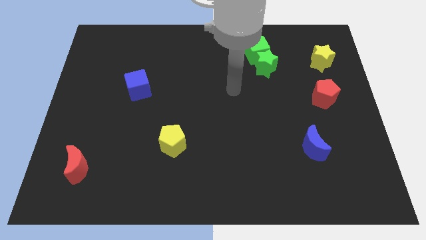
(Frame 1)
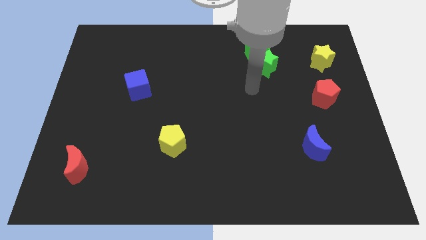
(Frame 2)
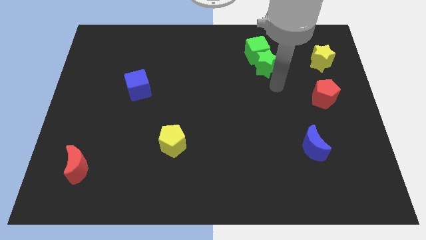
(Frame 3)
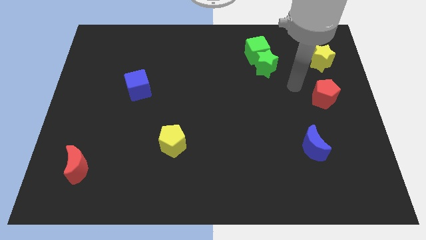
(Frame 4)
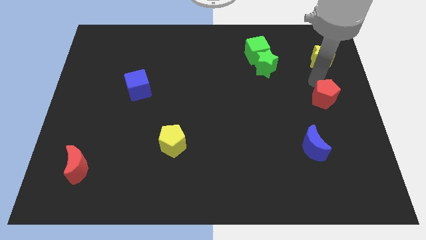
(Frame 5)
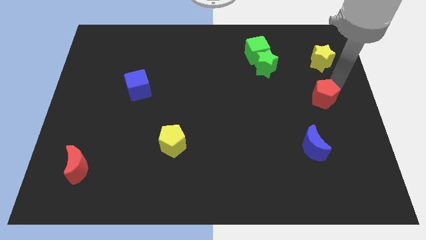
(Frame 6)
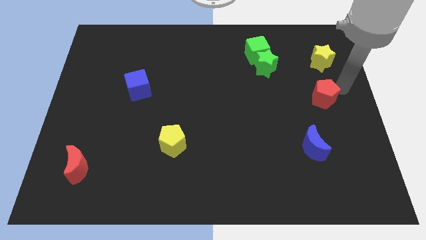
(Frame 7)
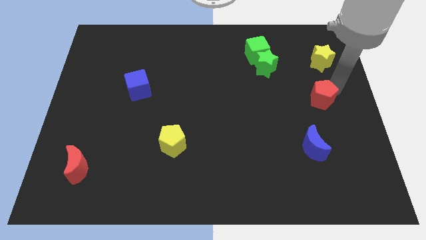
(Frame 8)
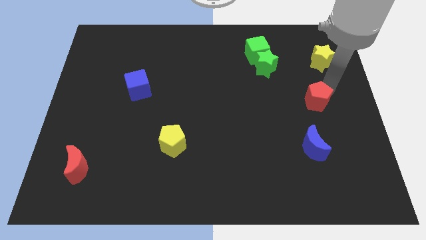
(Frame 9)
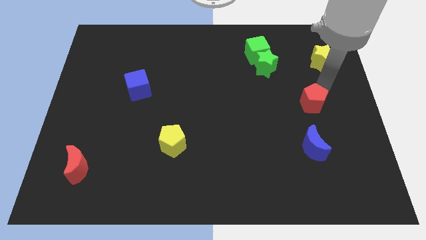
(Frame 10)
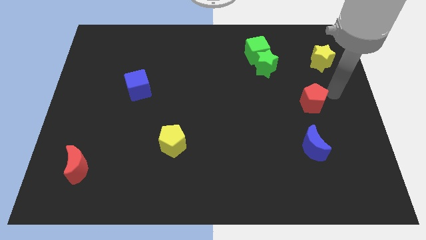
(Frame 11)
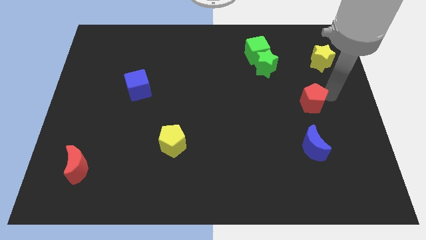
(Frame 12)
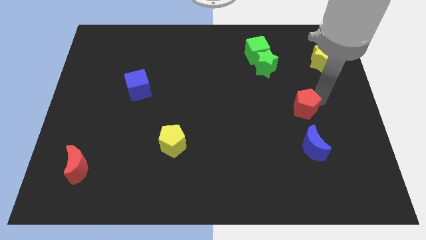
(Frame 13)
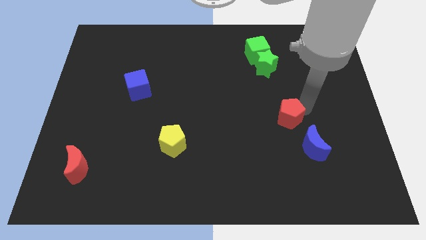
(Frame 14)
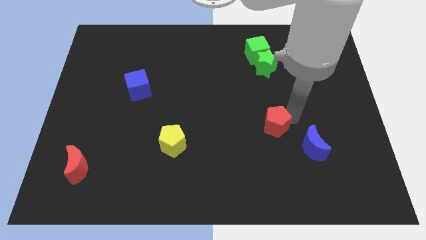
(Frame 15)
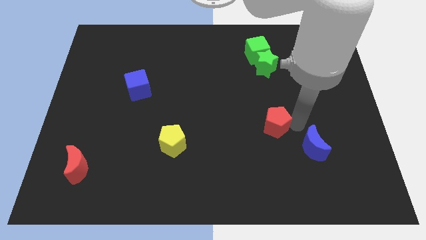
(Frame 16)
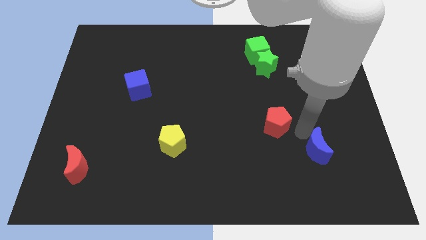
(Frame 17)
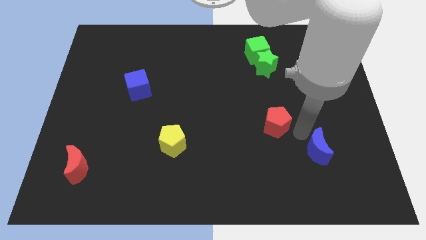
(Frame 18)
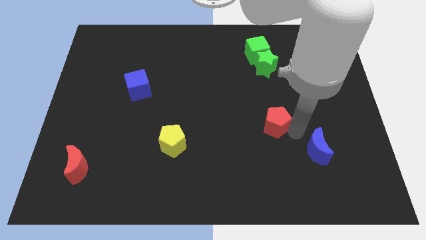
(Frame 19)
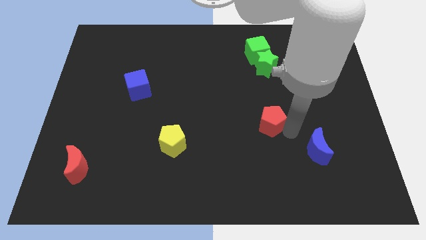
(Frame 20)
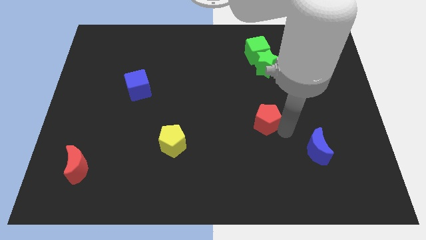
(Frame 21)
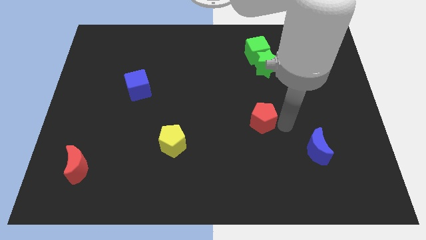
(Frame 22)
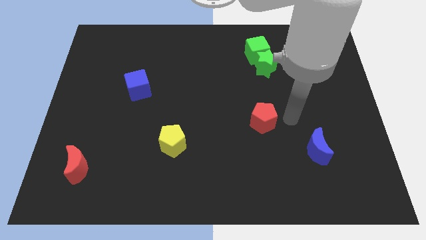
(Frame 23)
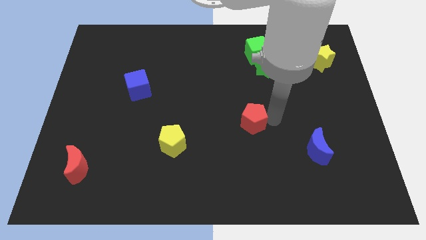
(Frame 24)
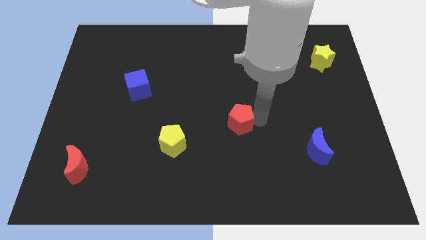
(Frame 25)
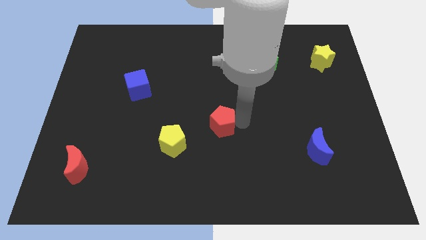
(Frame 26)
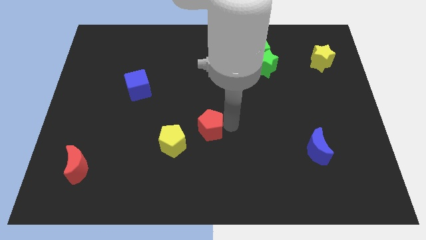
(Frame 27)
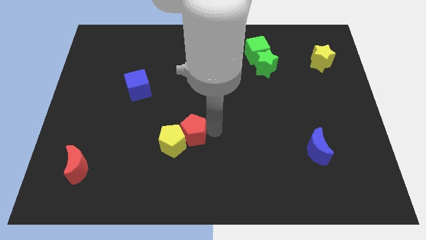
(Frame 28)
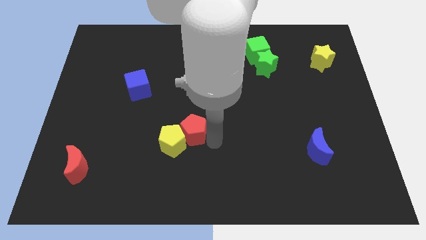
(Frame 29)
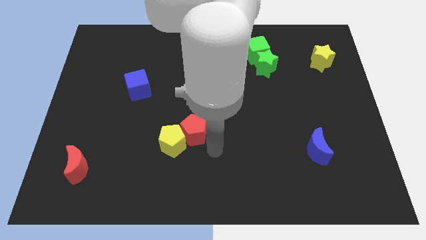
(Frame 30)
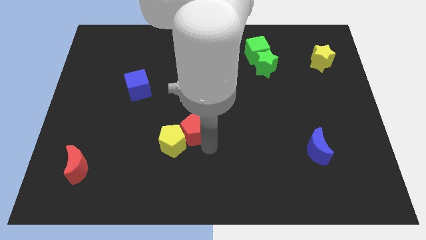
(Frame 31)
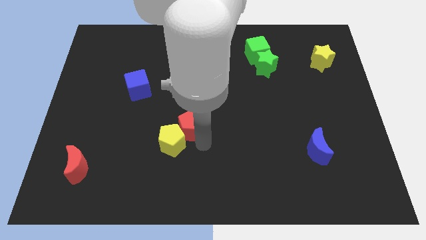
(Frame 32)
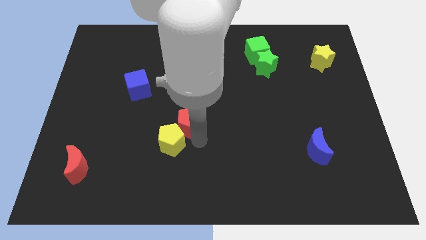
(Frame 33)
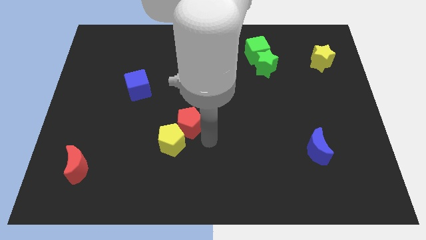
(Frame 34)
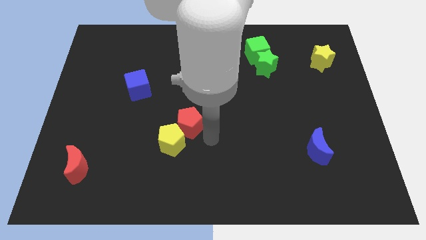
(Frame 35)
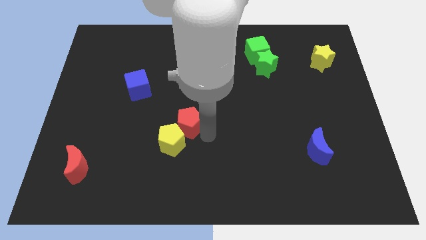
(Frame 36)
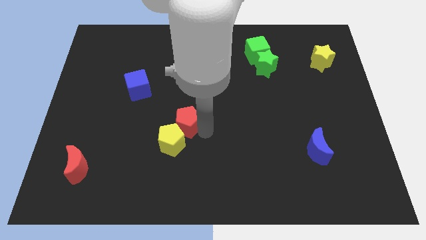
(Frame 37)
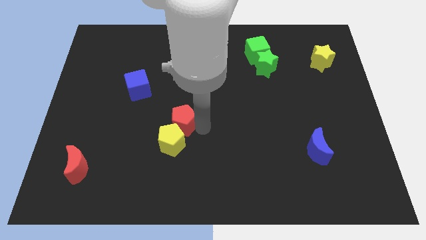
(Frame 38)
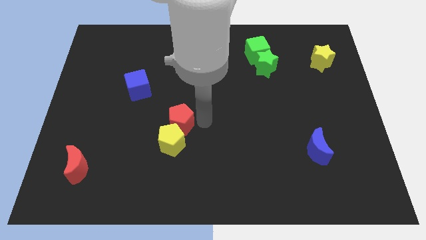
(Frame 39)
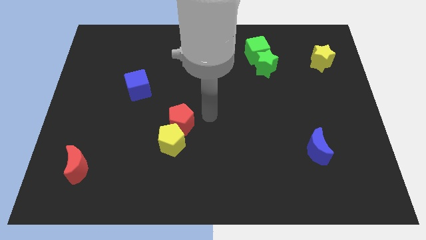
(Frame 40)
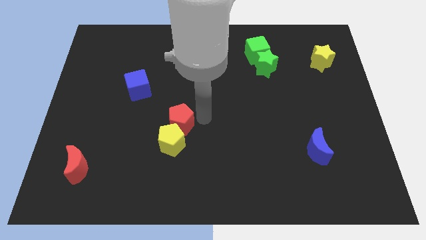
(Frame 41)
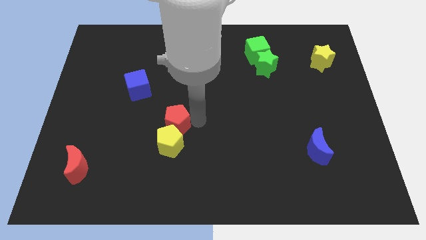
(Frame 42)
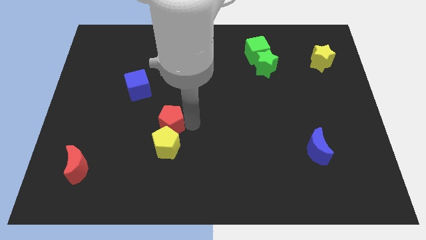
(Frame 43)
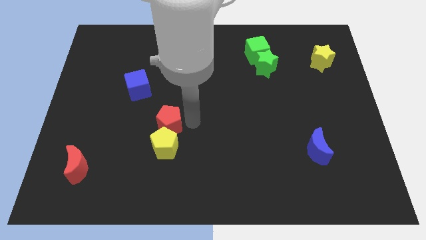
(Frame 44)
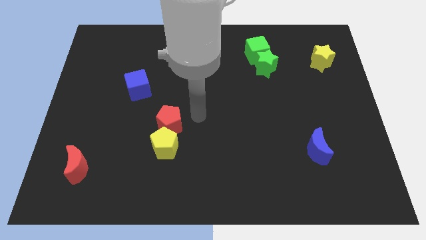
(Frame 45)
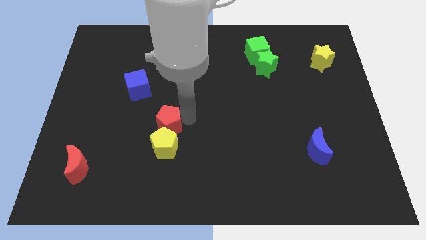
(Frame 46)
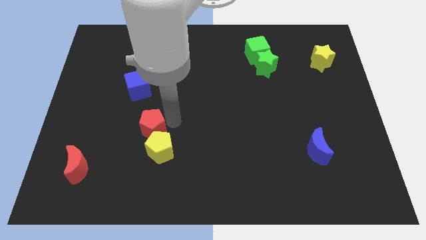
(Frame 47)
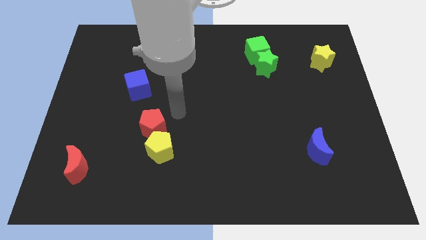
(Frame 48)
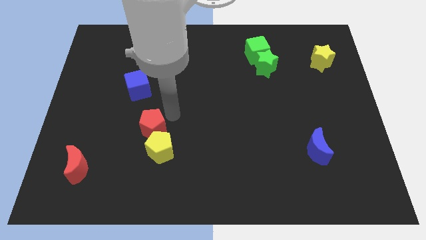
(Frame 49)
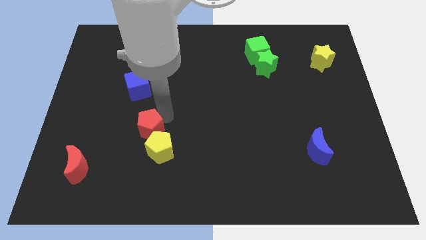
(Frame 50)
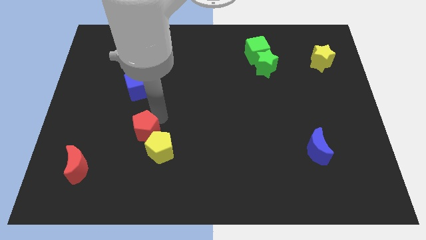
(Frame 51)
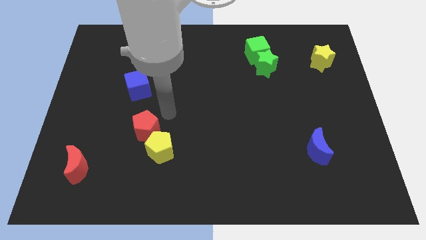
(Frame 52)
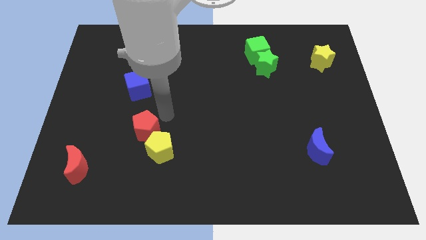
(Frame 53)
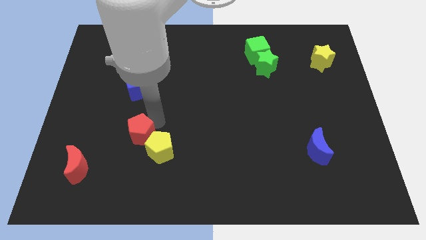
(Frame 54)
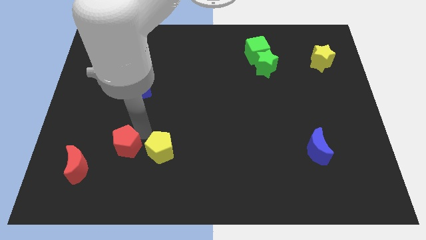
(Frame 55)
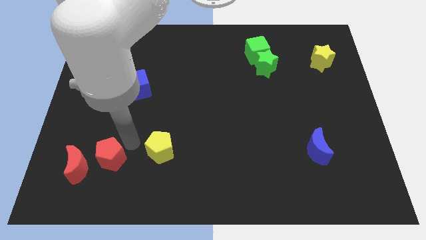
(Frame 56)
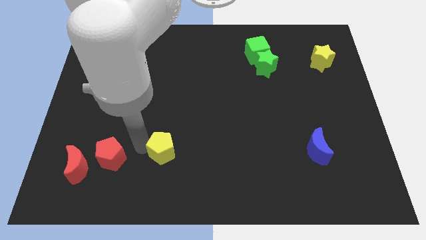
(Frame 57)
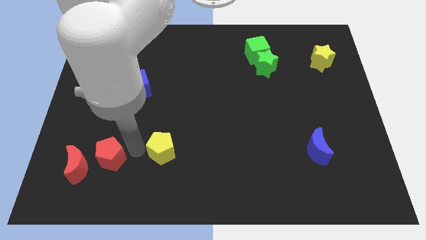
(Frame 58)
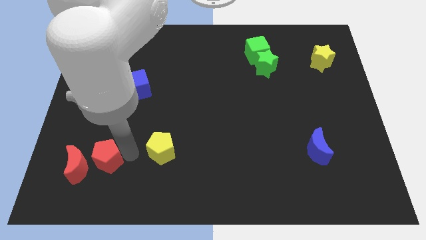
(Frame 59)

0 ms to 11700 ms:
put the red pentagon close to the red moon

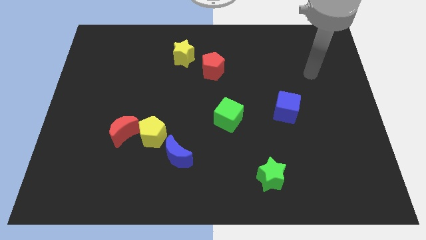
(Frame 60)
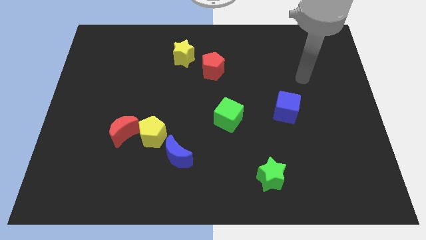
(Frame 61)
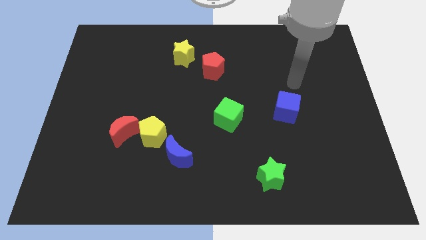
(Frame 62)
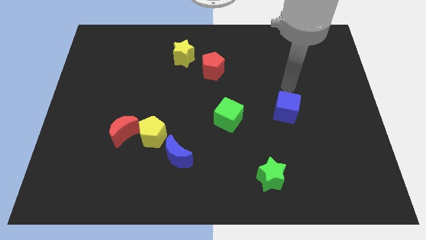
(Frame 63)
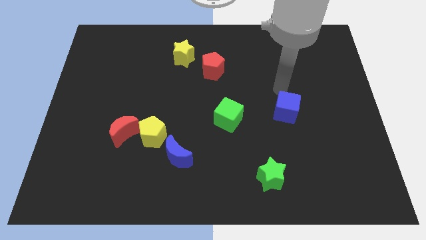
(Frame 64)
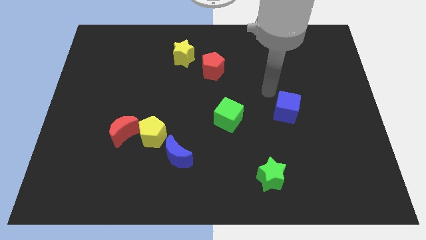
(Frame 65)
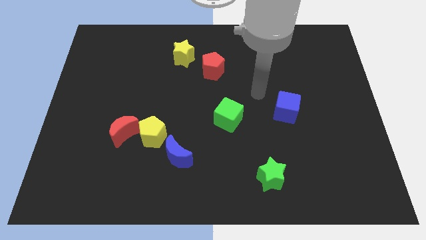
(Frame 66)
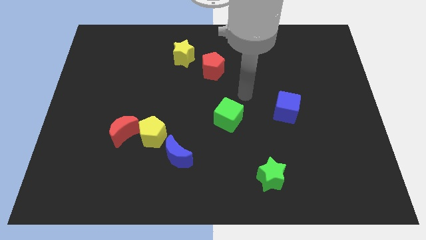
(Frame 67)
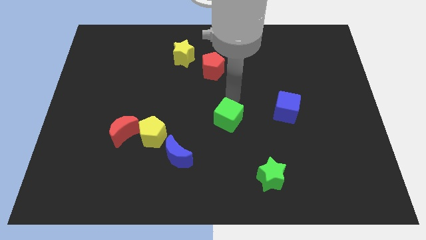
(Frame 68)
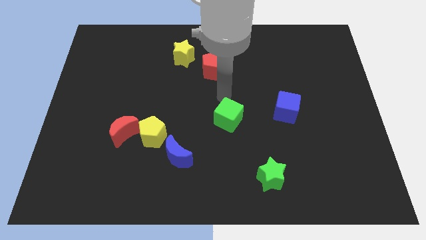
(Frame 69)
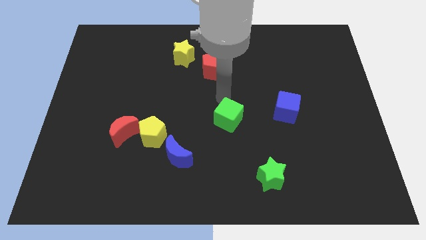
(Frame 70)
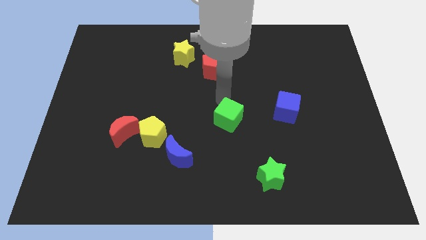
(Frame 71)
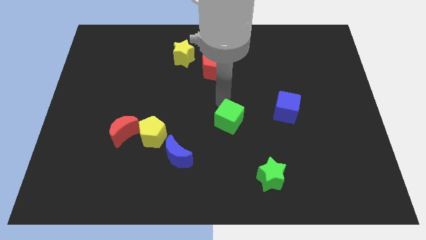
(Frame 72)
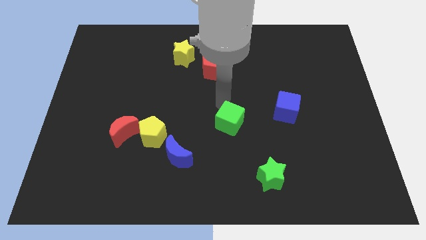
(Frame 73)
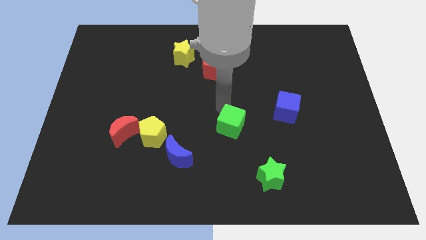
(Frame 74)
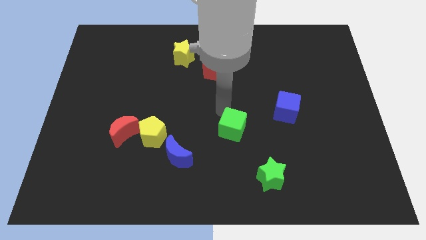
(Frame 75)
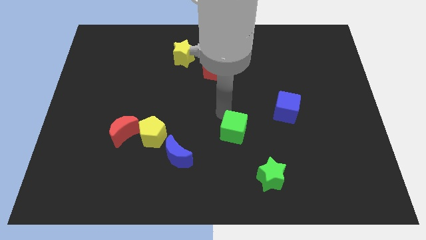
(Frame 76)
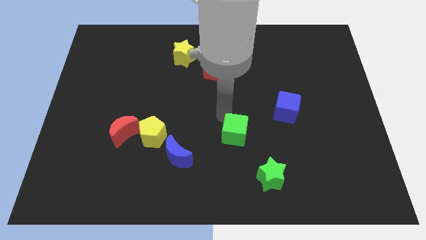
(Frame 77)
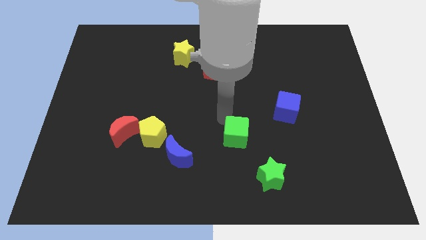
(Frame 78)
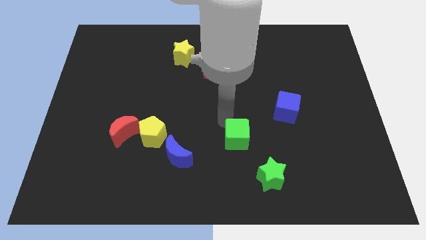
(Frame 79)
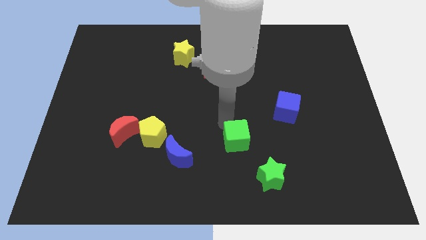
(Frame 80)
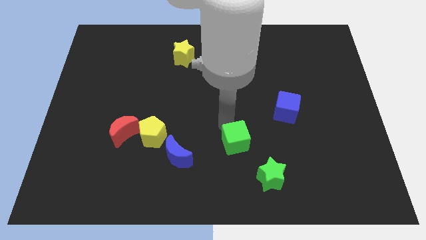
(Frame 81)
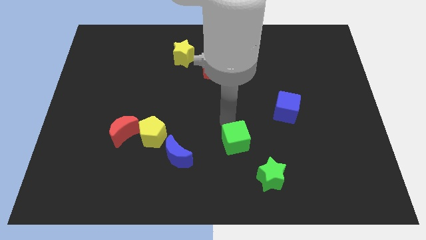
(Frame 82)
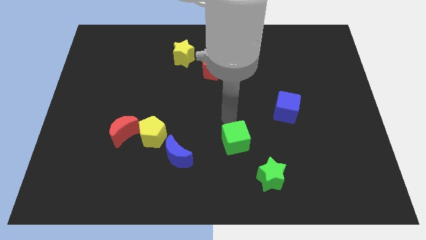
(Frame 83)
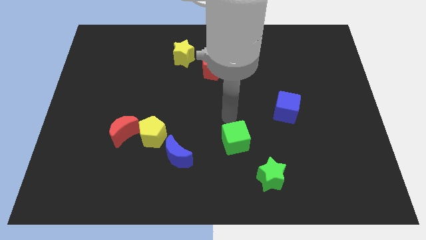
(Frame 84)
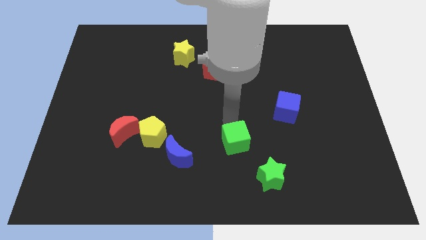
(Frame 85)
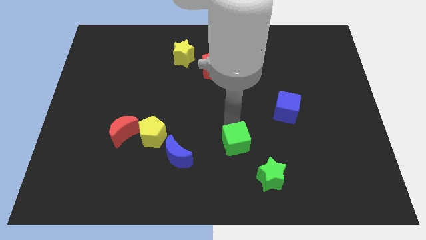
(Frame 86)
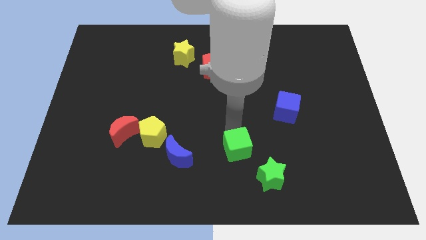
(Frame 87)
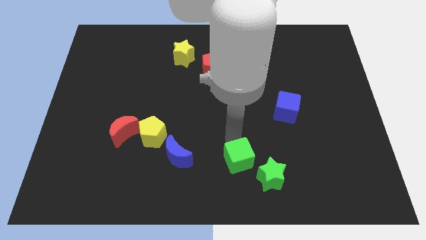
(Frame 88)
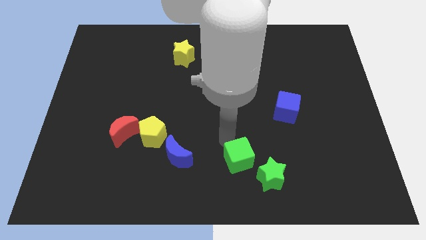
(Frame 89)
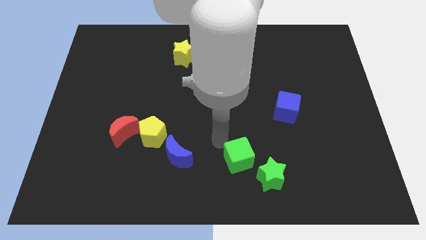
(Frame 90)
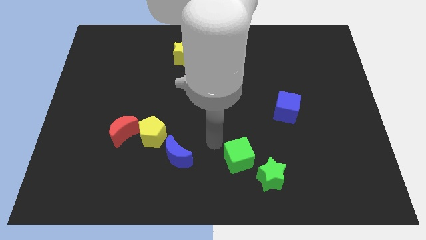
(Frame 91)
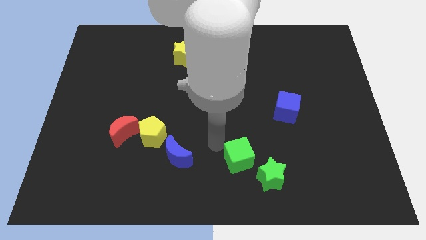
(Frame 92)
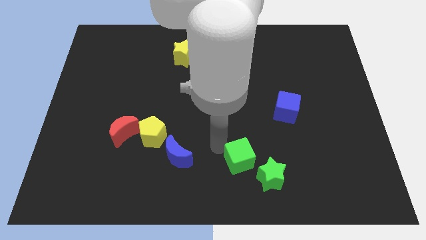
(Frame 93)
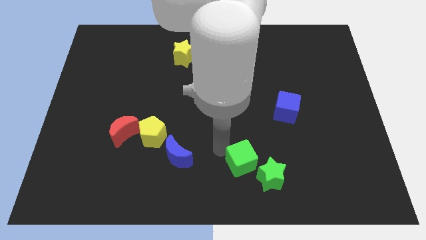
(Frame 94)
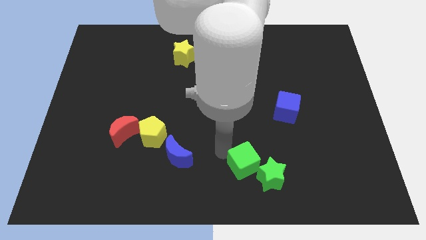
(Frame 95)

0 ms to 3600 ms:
push the green cube towards the green star
